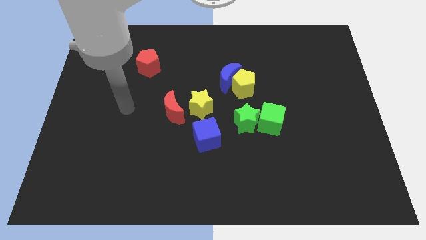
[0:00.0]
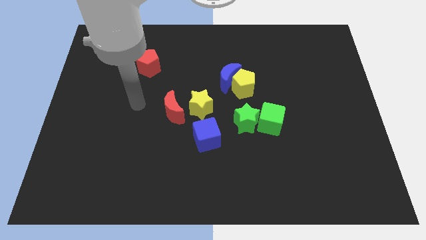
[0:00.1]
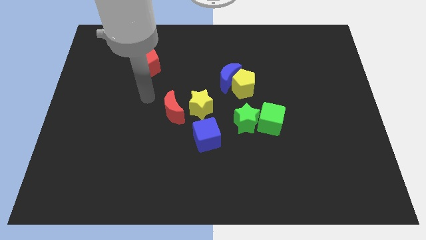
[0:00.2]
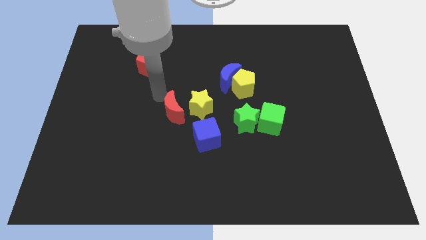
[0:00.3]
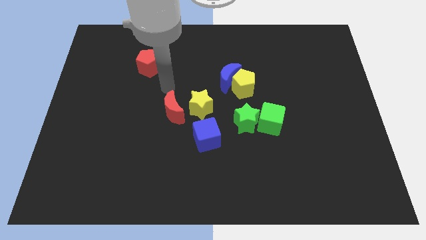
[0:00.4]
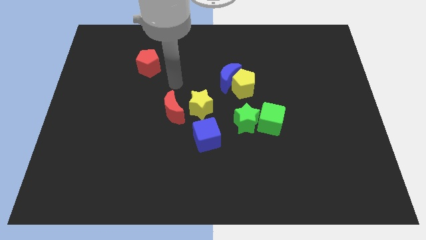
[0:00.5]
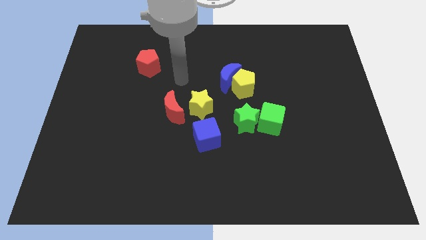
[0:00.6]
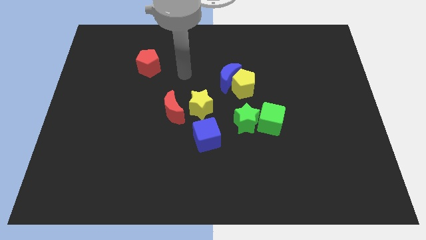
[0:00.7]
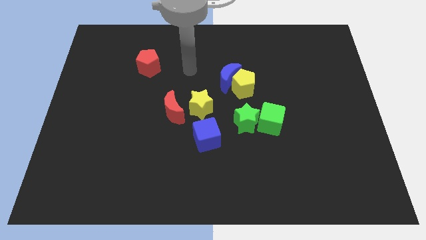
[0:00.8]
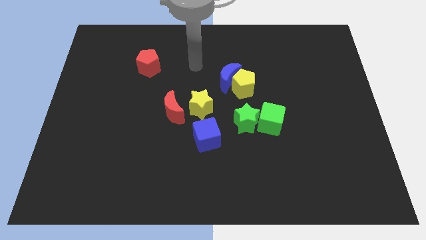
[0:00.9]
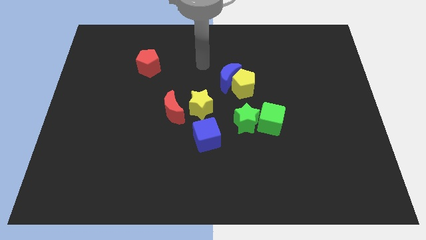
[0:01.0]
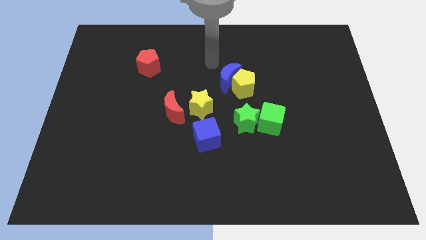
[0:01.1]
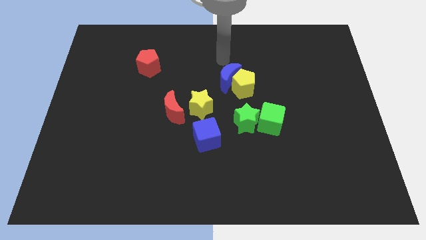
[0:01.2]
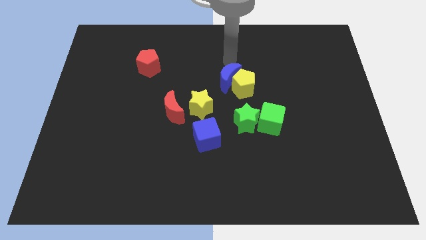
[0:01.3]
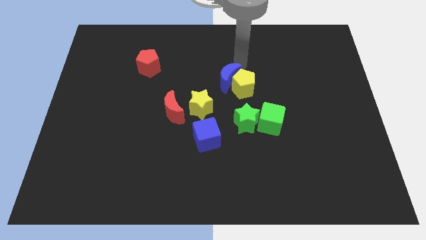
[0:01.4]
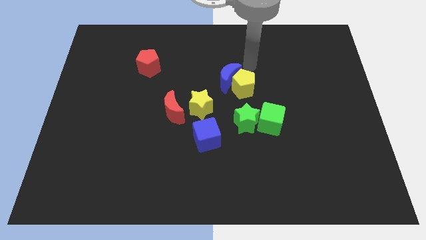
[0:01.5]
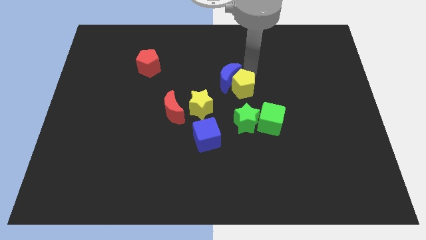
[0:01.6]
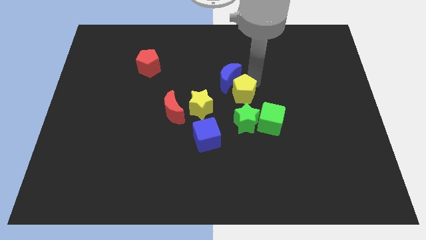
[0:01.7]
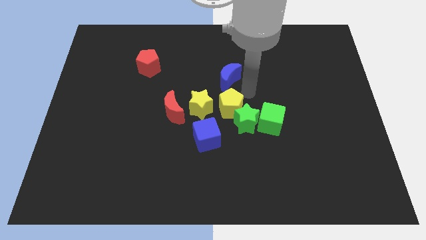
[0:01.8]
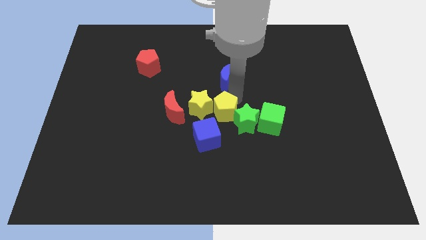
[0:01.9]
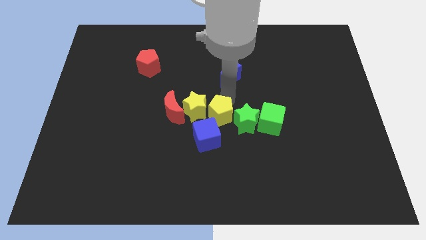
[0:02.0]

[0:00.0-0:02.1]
move the blue moon away from the yellow pentagon

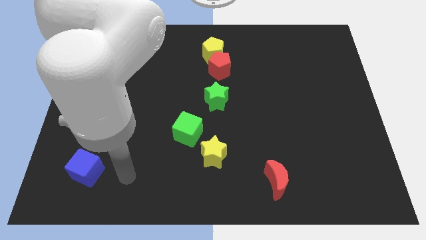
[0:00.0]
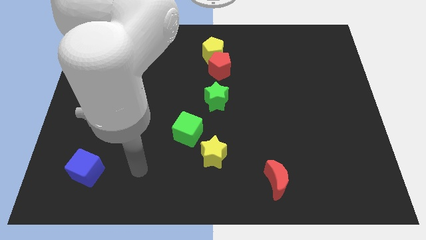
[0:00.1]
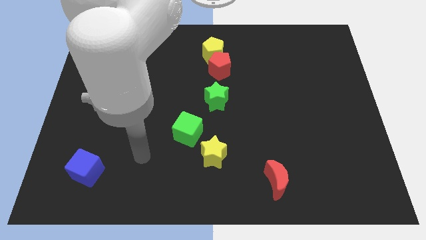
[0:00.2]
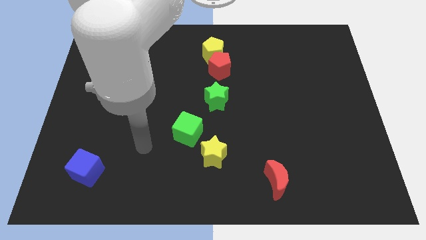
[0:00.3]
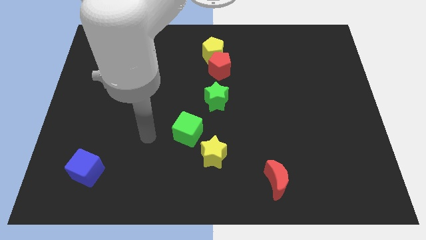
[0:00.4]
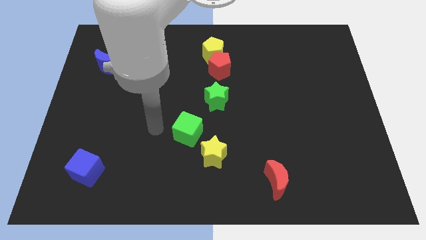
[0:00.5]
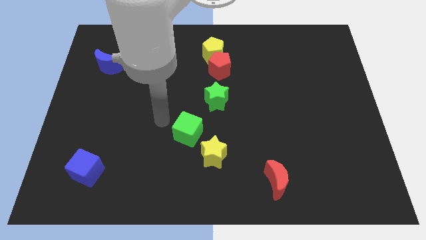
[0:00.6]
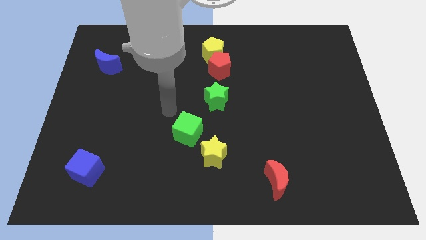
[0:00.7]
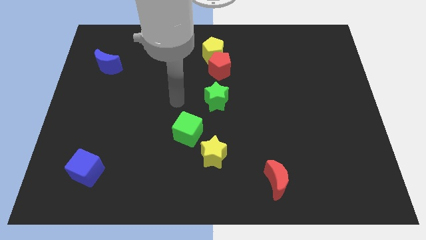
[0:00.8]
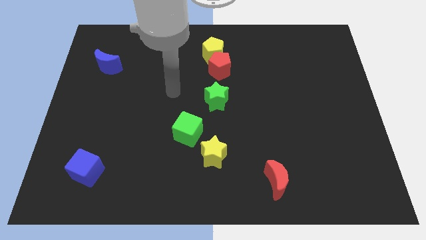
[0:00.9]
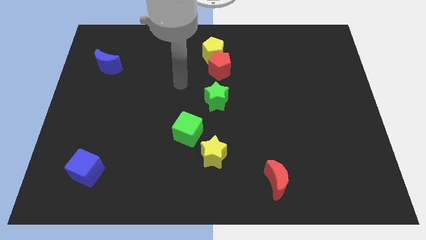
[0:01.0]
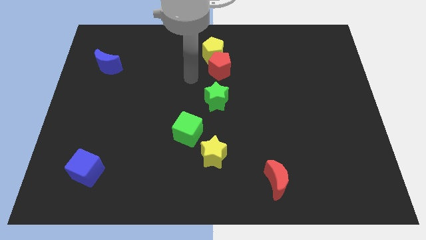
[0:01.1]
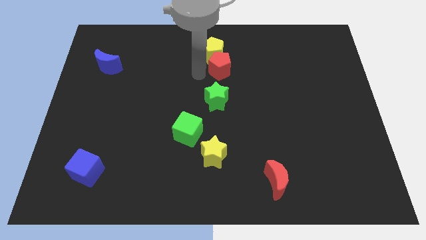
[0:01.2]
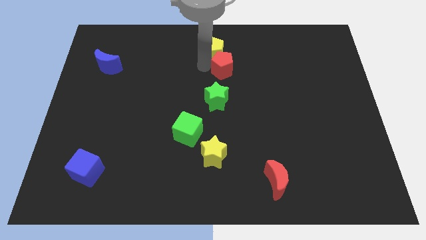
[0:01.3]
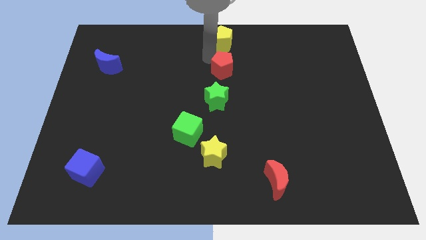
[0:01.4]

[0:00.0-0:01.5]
move the red pentagon away from the yellow pentagon

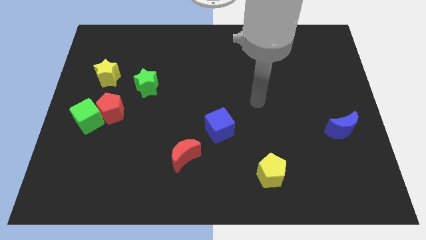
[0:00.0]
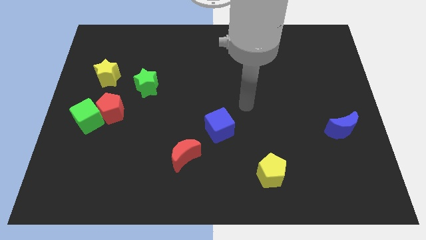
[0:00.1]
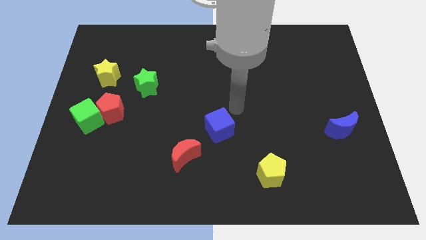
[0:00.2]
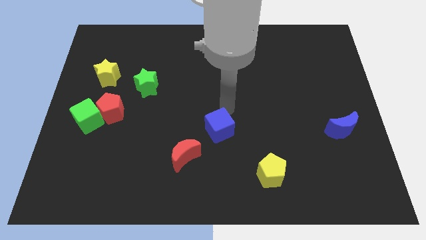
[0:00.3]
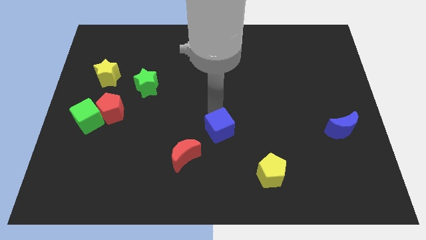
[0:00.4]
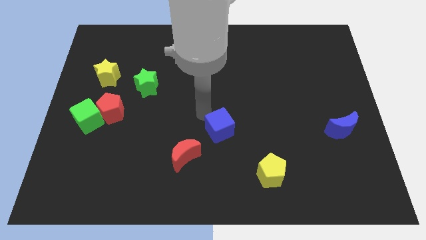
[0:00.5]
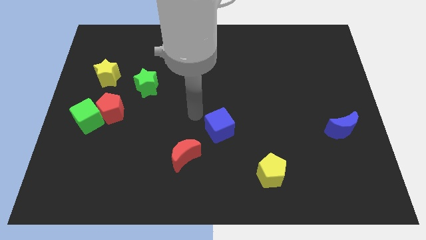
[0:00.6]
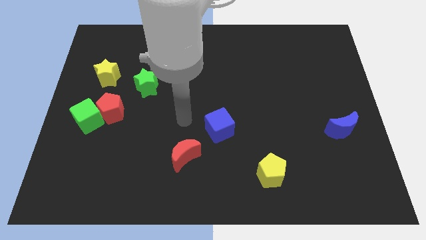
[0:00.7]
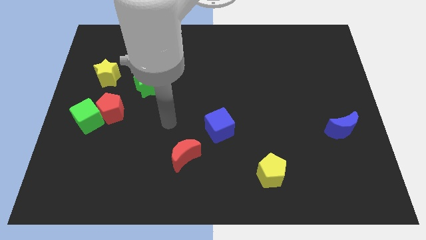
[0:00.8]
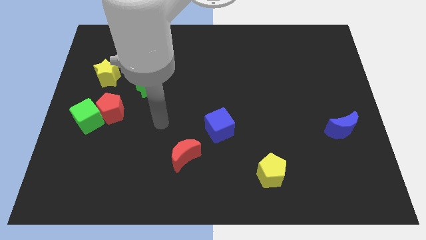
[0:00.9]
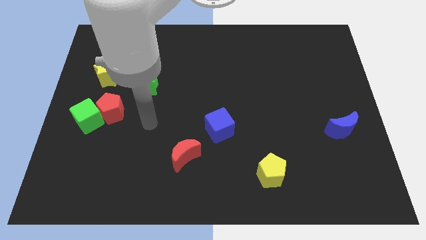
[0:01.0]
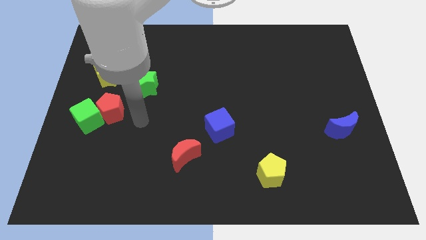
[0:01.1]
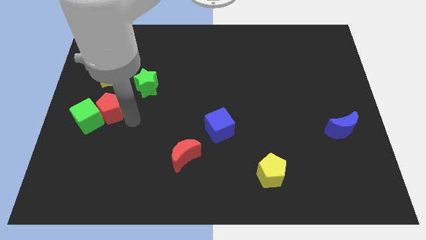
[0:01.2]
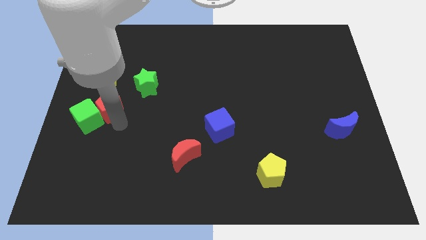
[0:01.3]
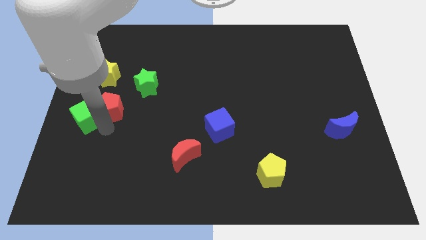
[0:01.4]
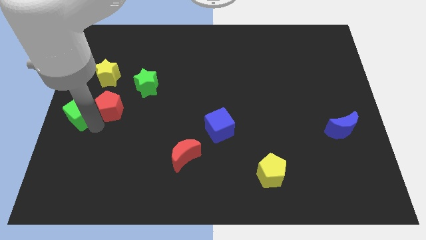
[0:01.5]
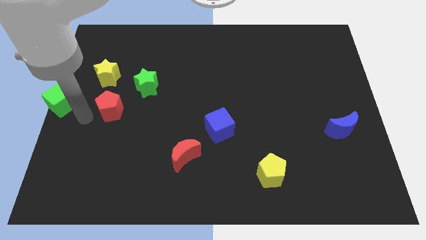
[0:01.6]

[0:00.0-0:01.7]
separate the red pentagon from the green cube

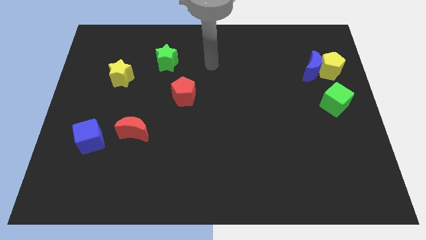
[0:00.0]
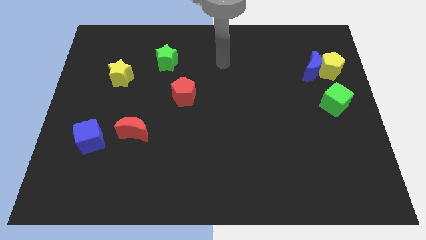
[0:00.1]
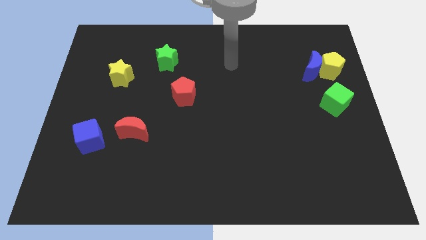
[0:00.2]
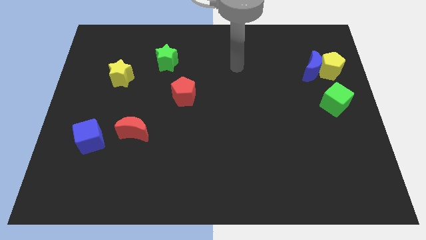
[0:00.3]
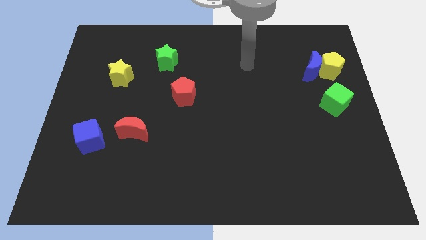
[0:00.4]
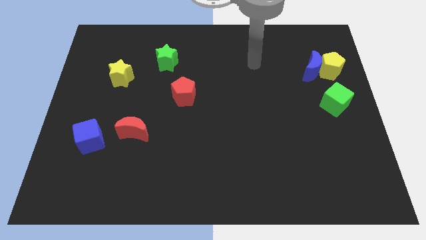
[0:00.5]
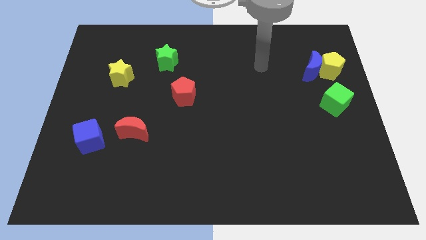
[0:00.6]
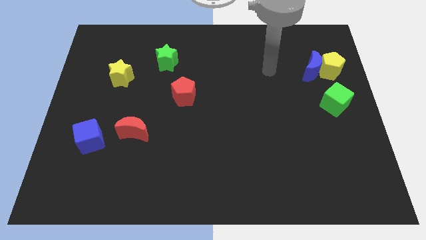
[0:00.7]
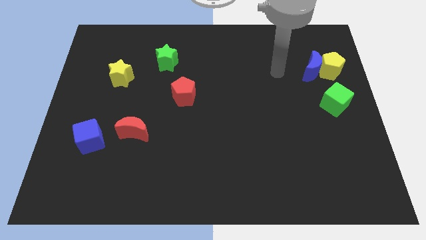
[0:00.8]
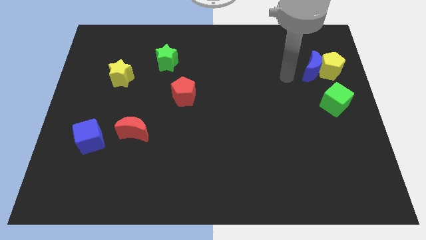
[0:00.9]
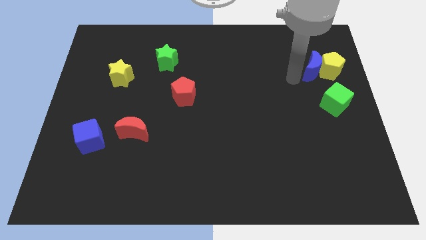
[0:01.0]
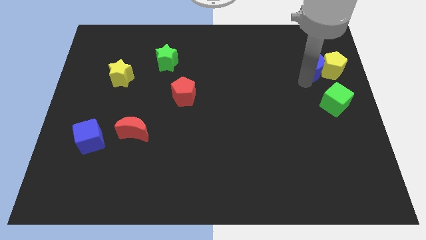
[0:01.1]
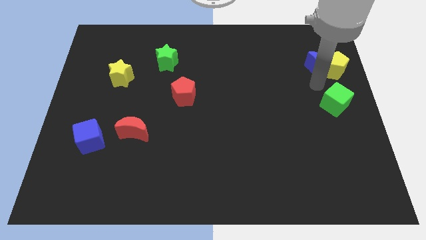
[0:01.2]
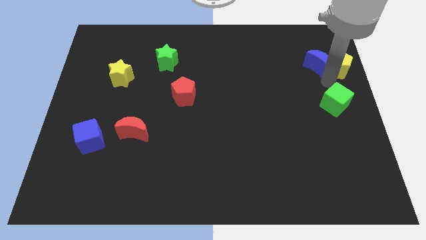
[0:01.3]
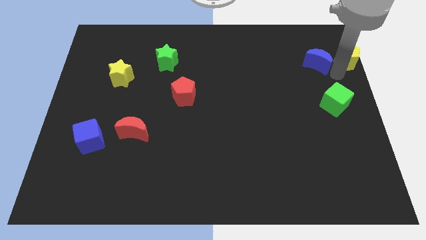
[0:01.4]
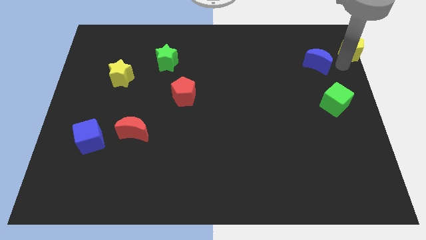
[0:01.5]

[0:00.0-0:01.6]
pull the blue moon apart from the yellow pentagon

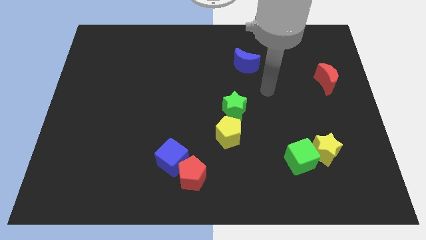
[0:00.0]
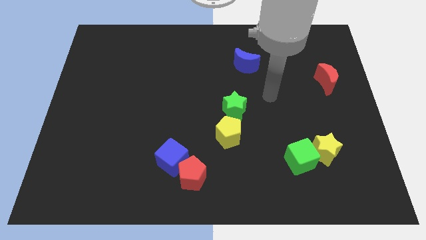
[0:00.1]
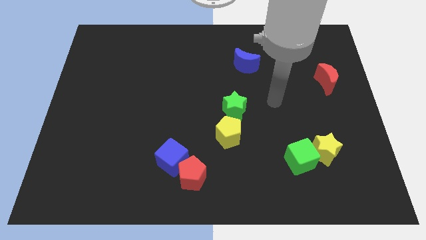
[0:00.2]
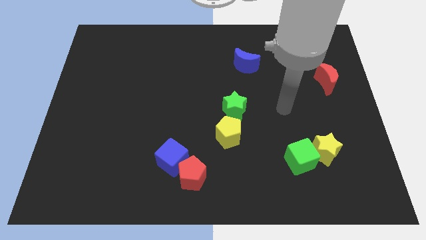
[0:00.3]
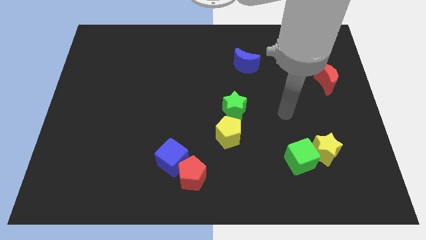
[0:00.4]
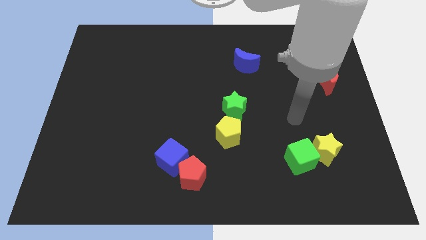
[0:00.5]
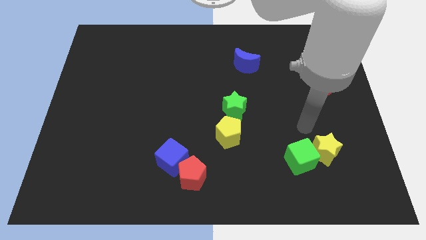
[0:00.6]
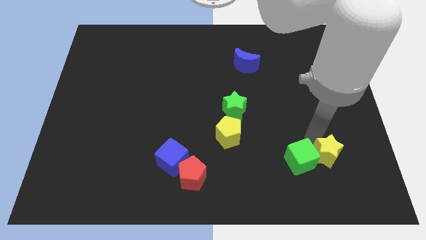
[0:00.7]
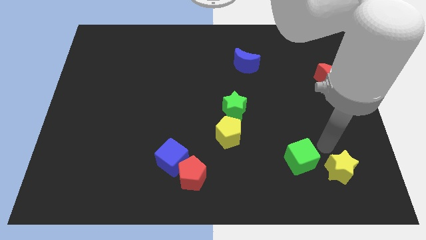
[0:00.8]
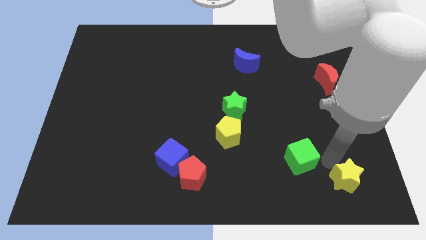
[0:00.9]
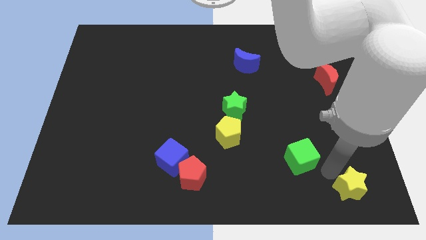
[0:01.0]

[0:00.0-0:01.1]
move the green cube away from the yellow star

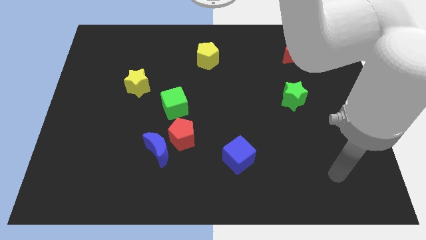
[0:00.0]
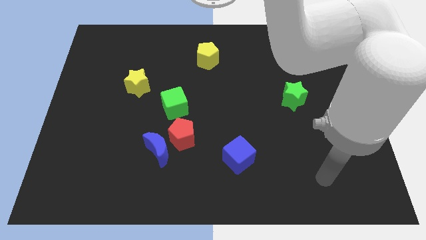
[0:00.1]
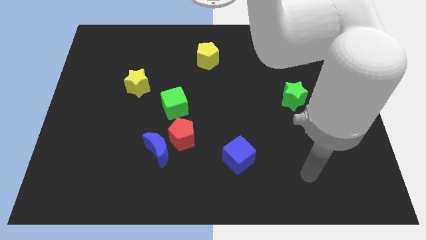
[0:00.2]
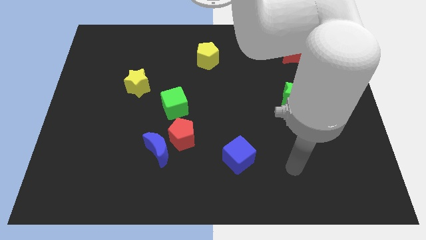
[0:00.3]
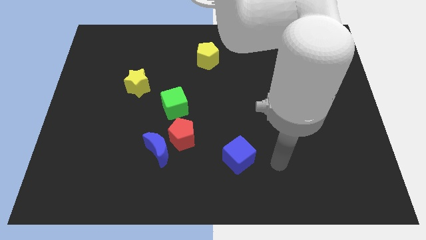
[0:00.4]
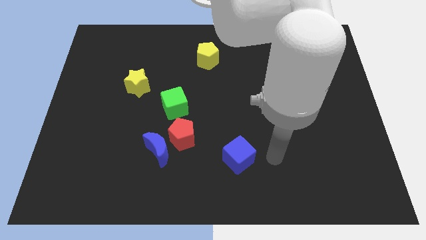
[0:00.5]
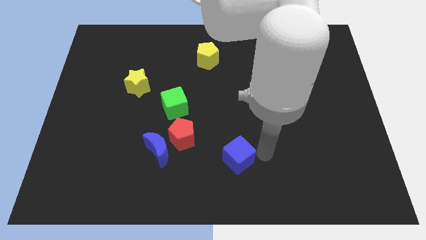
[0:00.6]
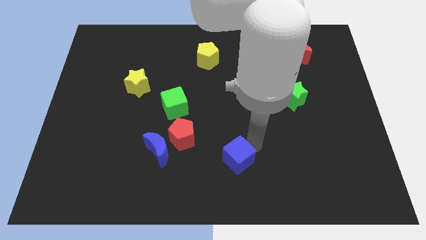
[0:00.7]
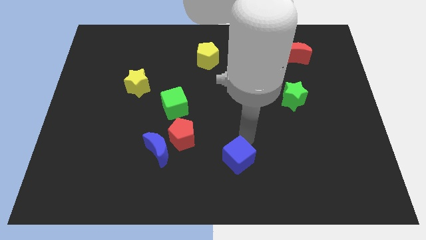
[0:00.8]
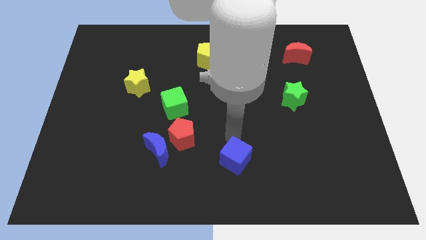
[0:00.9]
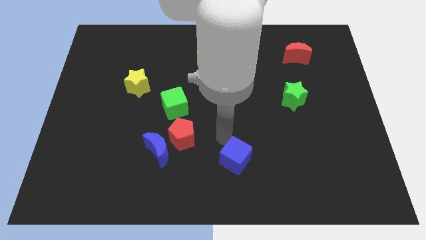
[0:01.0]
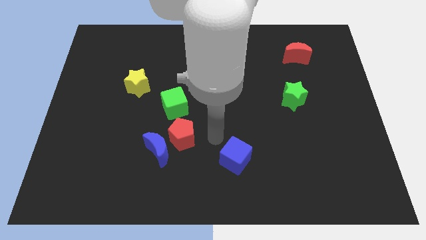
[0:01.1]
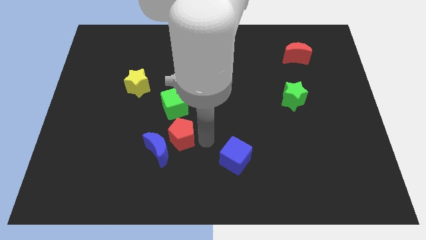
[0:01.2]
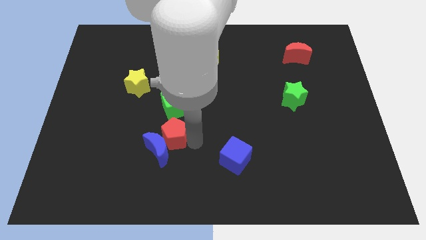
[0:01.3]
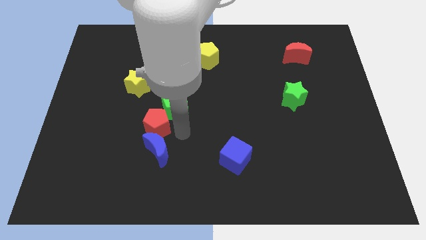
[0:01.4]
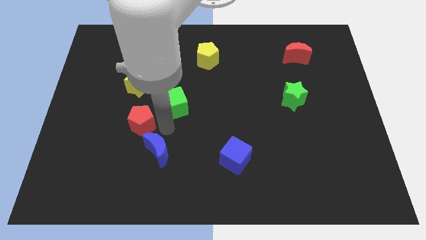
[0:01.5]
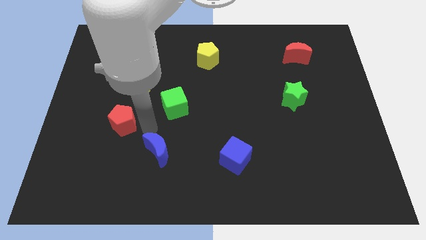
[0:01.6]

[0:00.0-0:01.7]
move the blue moon away from the red pentagon
